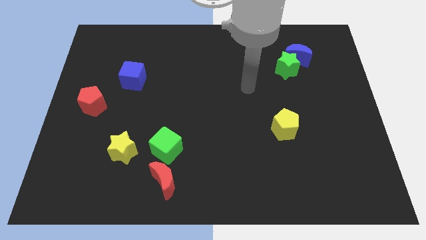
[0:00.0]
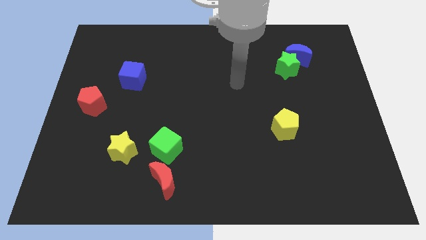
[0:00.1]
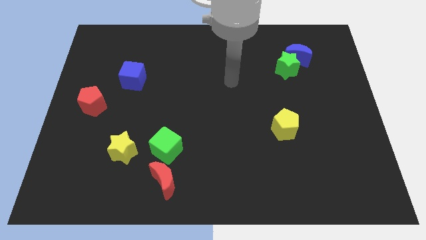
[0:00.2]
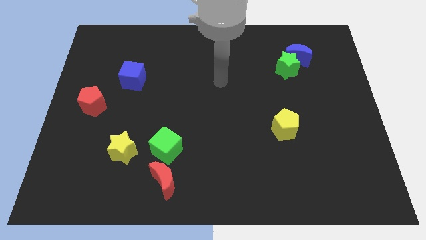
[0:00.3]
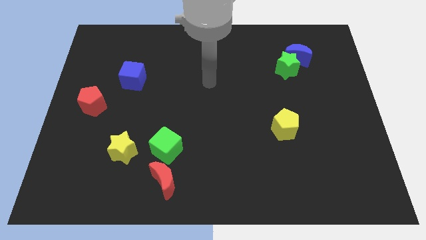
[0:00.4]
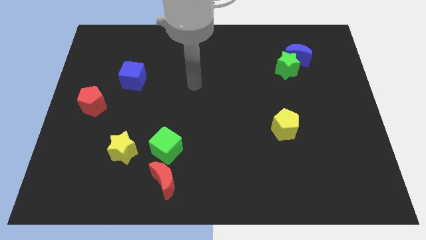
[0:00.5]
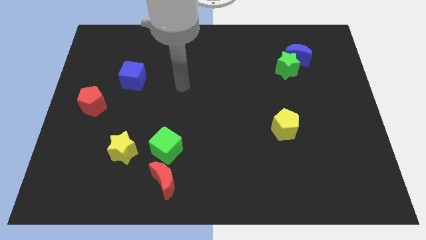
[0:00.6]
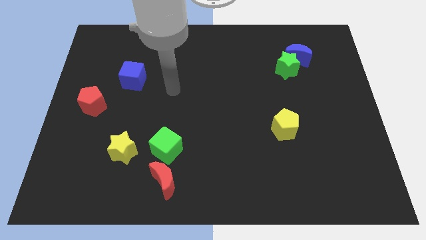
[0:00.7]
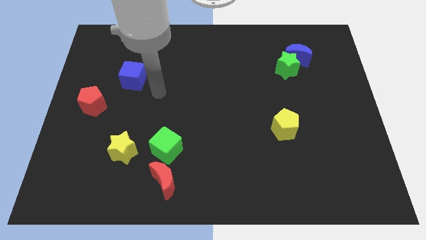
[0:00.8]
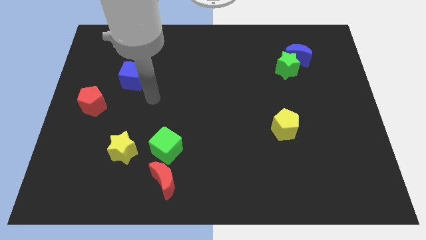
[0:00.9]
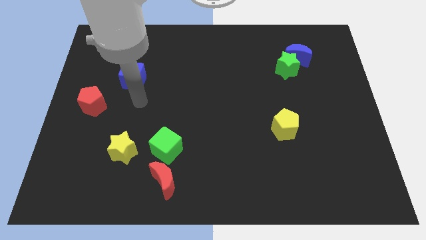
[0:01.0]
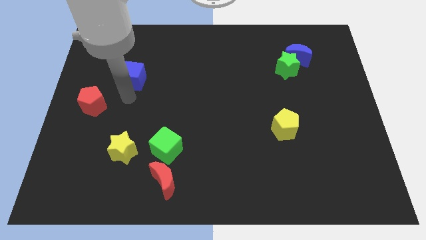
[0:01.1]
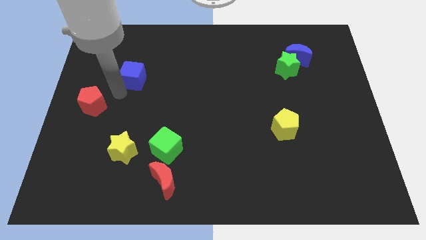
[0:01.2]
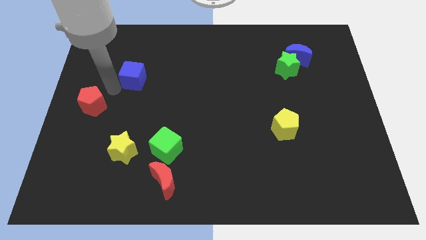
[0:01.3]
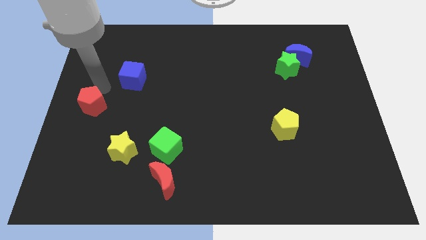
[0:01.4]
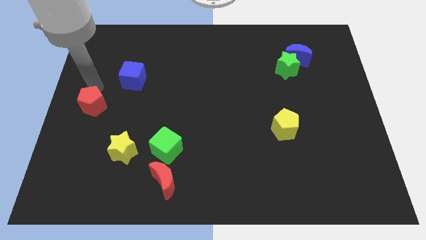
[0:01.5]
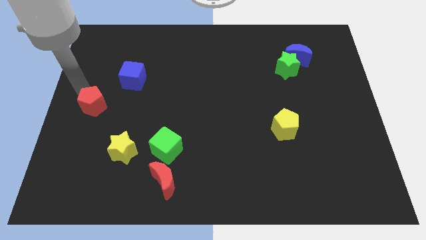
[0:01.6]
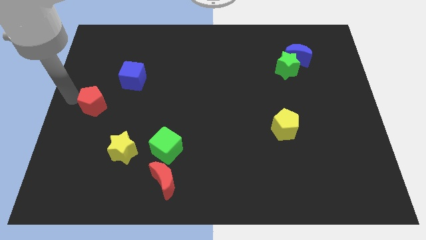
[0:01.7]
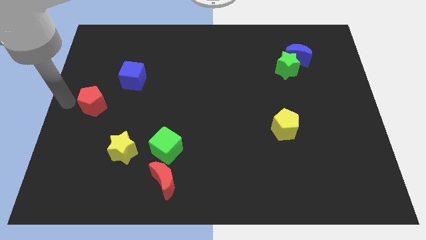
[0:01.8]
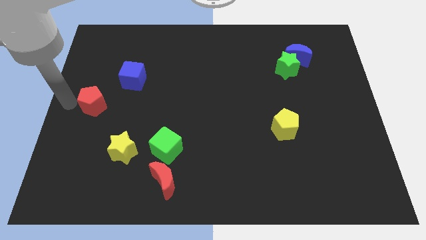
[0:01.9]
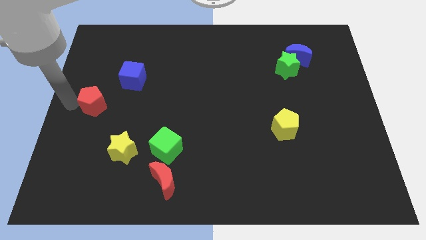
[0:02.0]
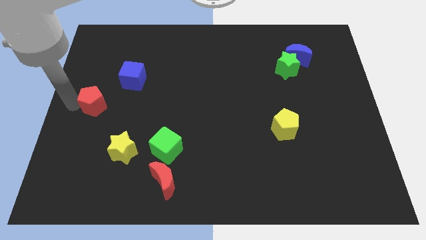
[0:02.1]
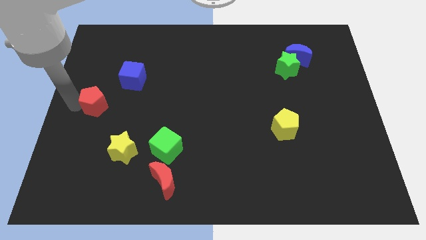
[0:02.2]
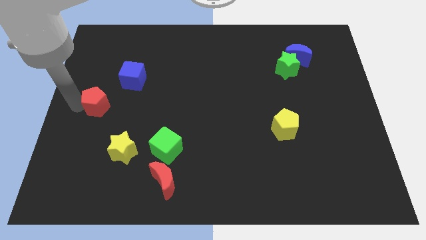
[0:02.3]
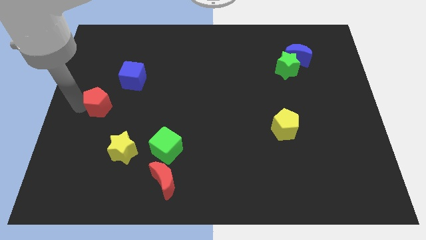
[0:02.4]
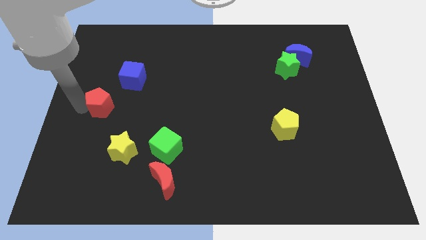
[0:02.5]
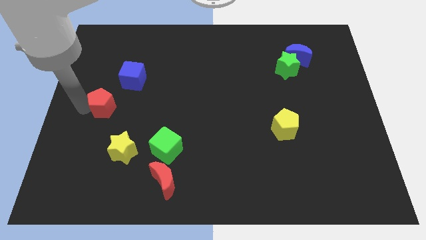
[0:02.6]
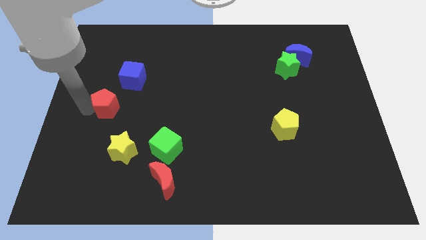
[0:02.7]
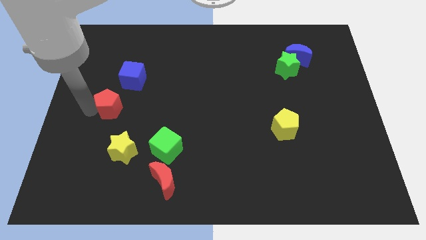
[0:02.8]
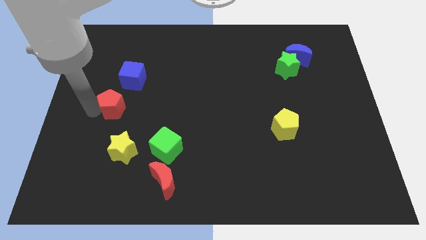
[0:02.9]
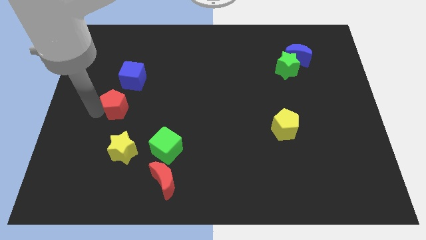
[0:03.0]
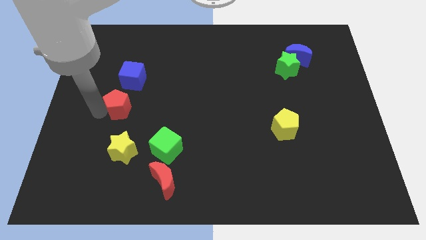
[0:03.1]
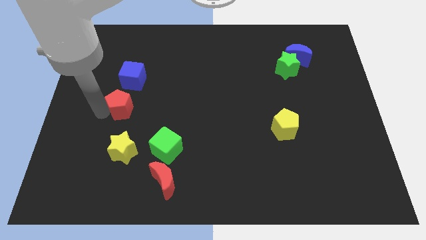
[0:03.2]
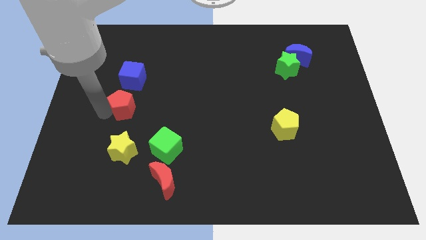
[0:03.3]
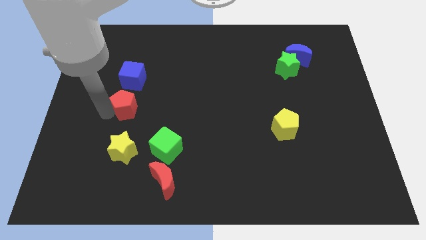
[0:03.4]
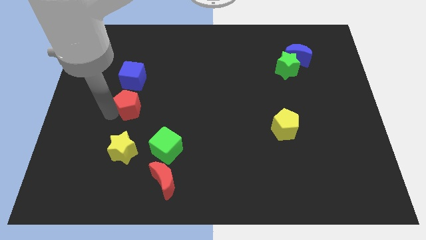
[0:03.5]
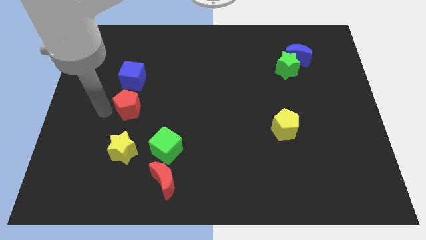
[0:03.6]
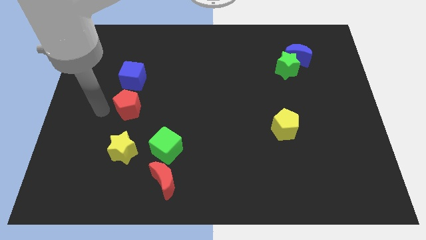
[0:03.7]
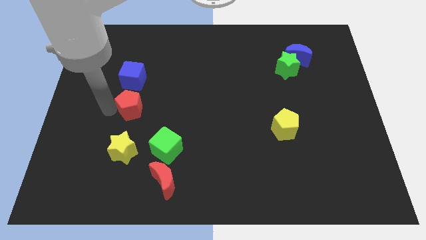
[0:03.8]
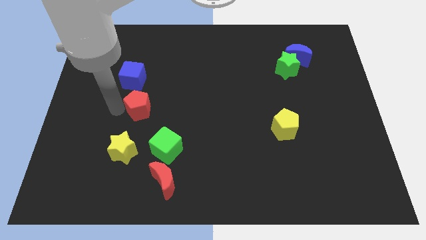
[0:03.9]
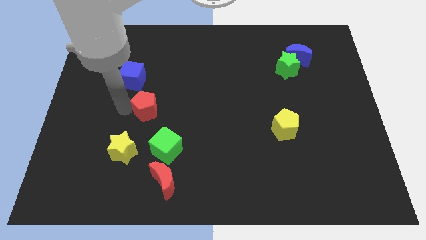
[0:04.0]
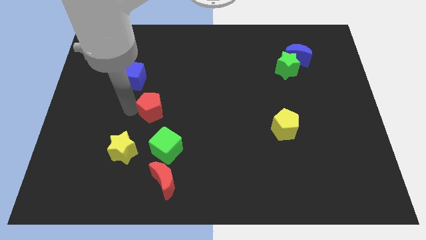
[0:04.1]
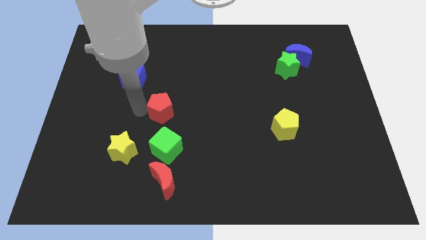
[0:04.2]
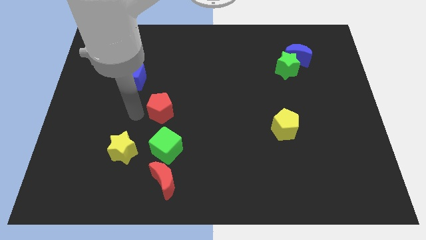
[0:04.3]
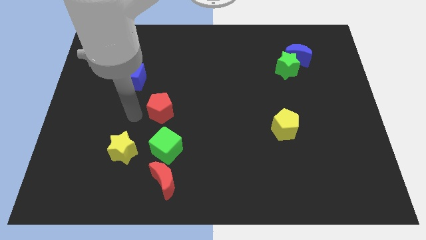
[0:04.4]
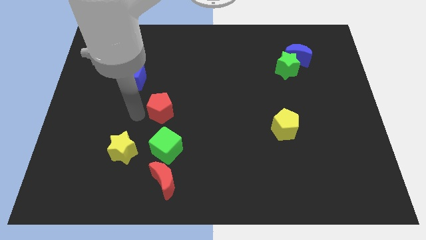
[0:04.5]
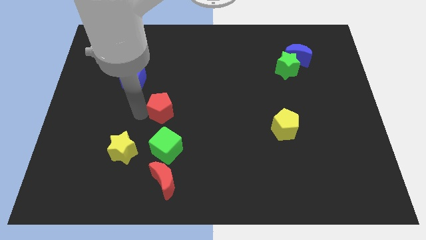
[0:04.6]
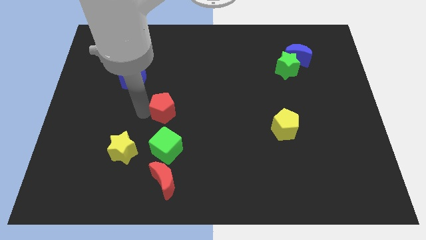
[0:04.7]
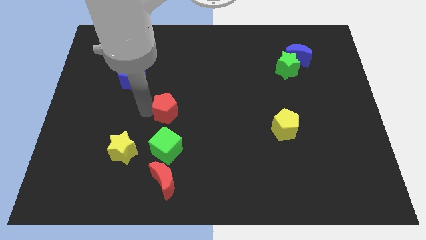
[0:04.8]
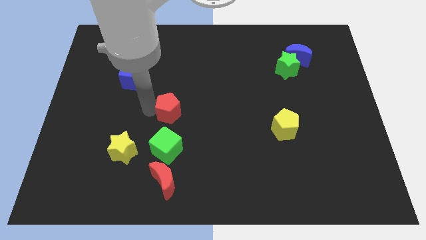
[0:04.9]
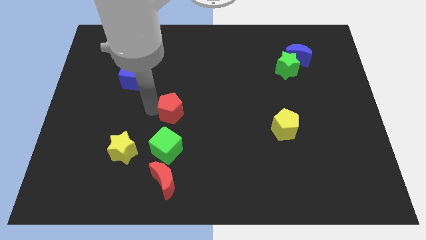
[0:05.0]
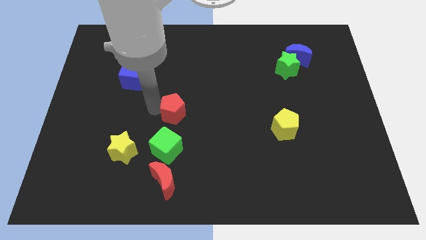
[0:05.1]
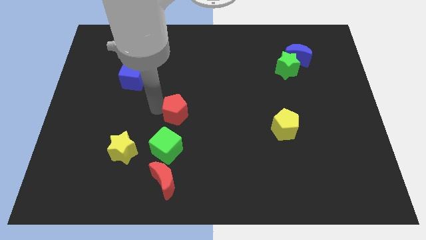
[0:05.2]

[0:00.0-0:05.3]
move the red pentagon to the right

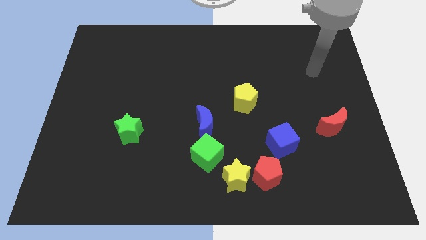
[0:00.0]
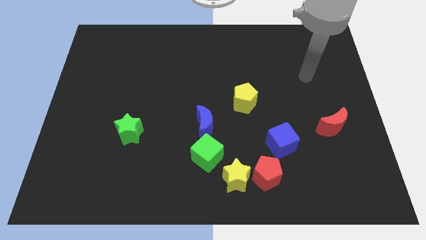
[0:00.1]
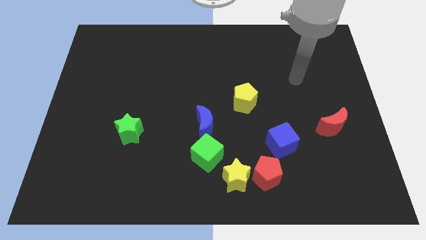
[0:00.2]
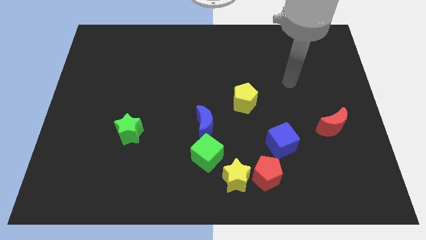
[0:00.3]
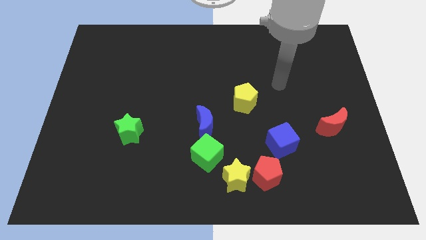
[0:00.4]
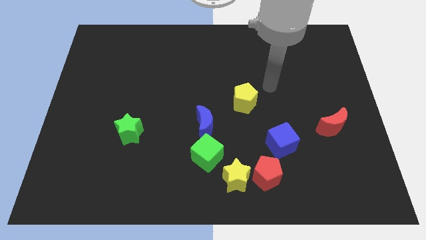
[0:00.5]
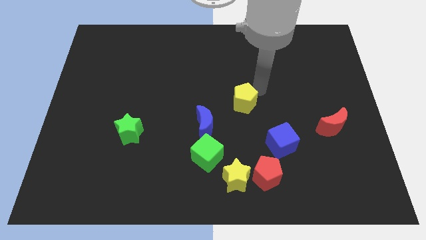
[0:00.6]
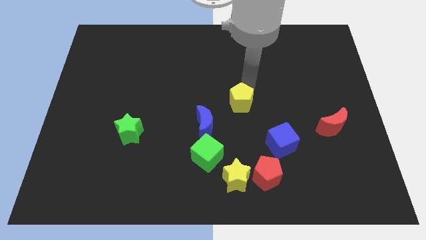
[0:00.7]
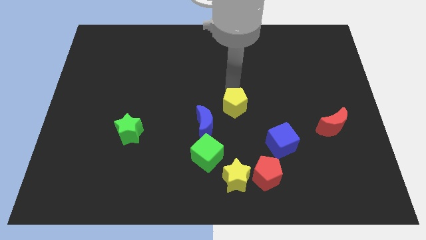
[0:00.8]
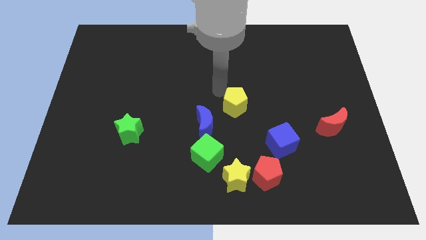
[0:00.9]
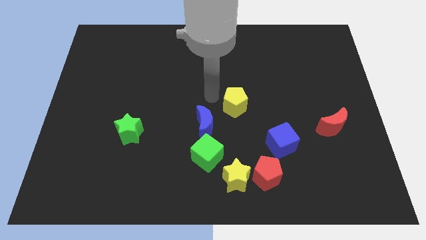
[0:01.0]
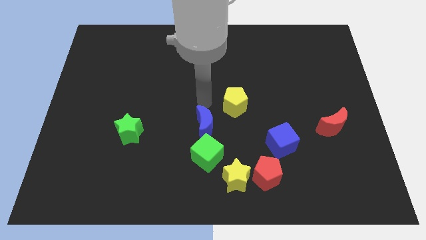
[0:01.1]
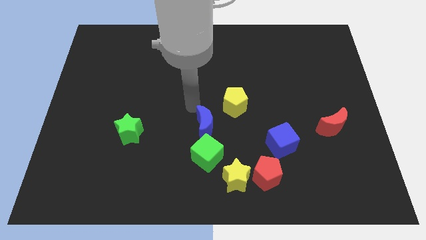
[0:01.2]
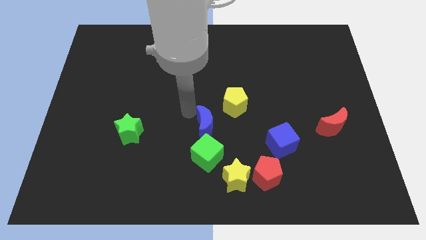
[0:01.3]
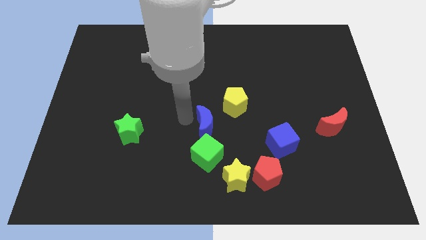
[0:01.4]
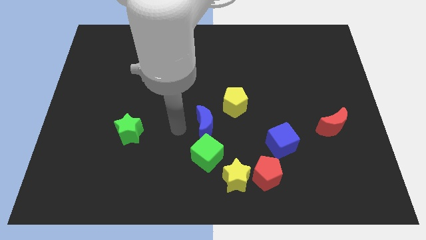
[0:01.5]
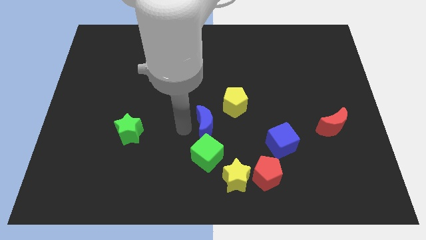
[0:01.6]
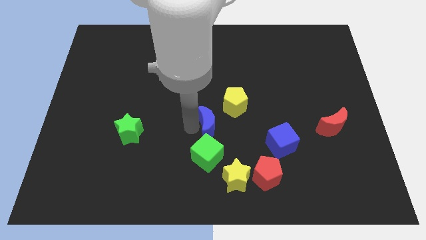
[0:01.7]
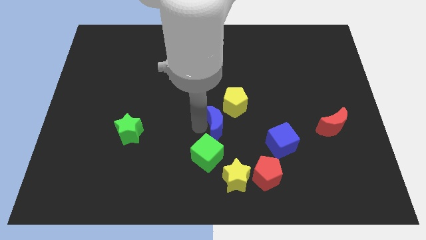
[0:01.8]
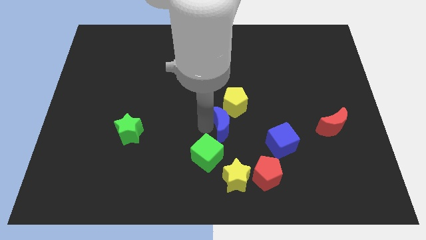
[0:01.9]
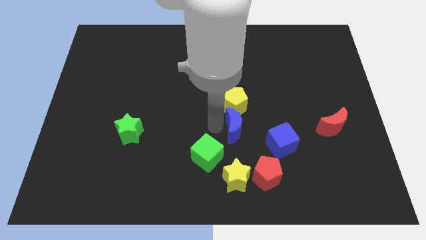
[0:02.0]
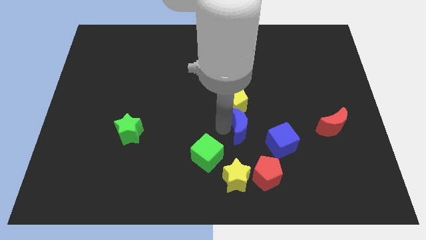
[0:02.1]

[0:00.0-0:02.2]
slide the blue moon a bit right

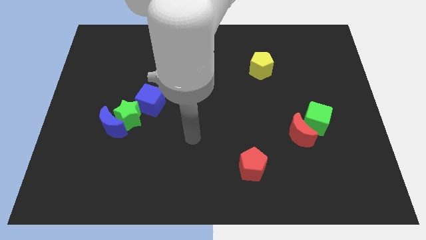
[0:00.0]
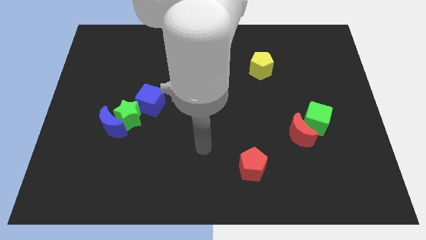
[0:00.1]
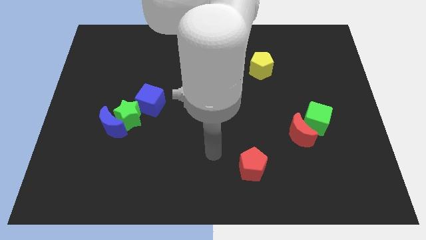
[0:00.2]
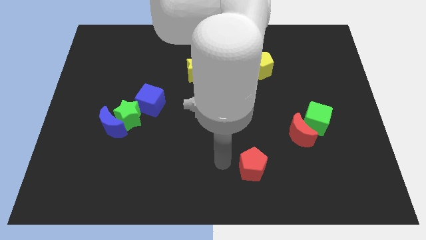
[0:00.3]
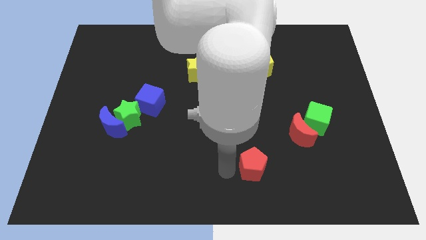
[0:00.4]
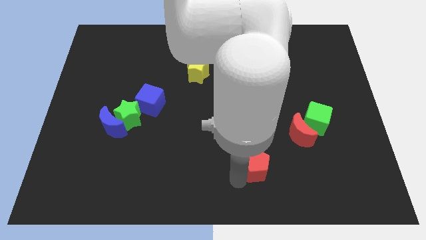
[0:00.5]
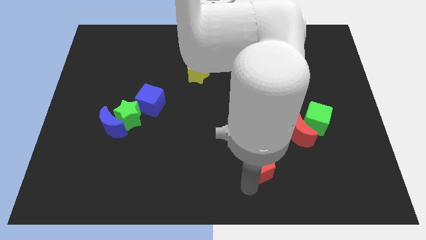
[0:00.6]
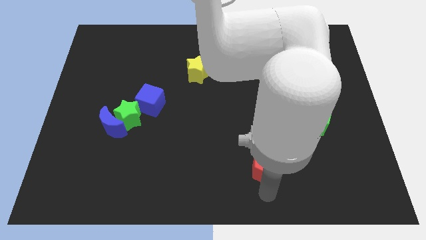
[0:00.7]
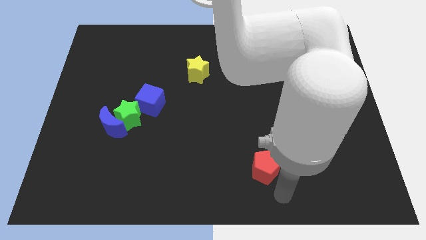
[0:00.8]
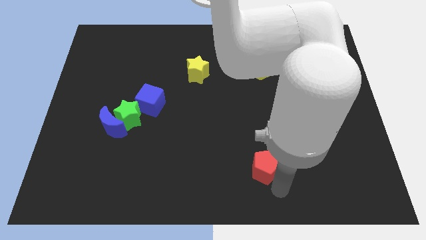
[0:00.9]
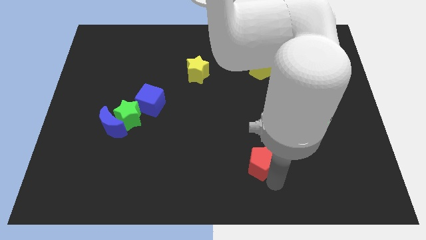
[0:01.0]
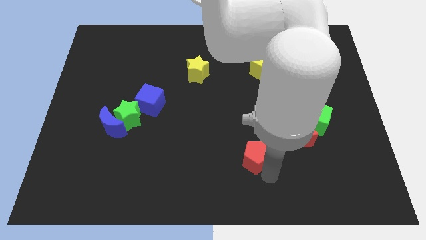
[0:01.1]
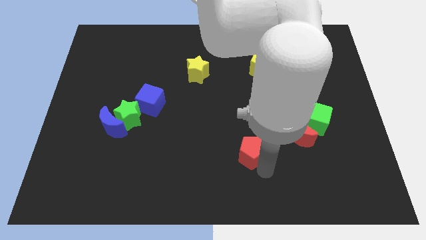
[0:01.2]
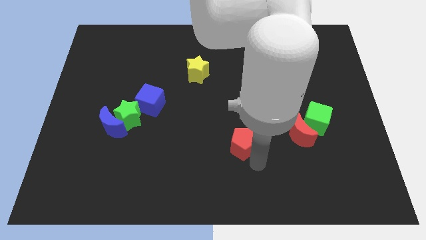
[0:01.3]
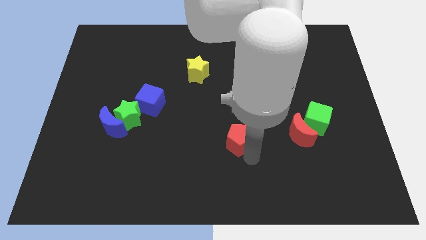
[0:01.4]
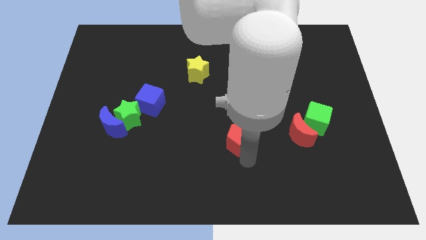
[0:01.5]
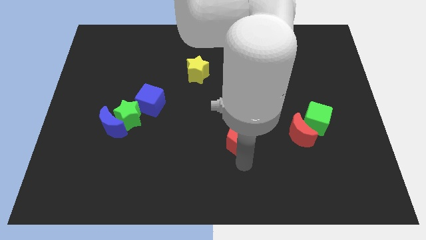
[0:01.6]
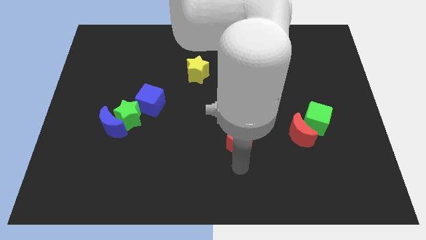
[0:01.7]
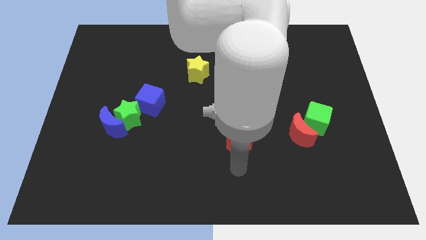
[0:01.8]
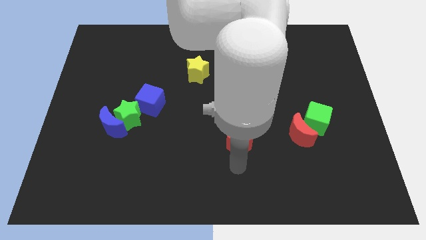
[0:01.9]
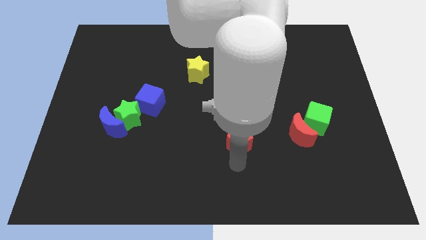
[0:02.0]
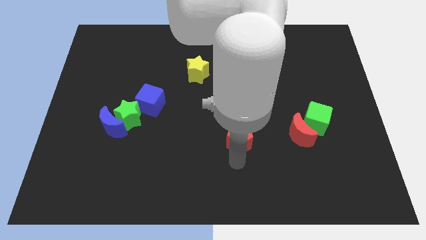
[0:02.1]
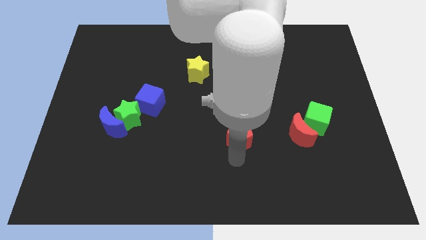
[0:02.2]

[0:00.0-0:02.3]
slide the red pentagon up a little
